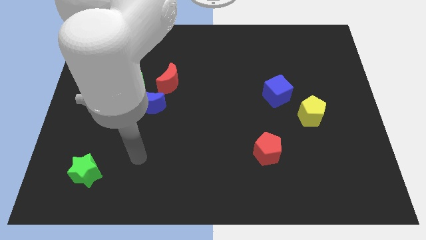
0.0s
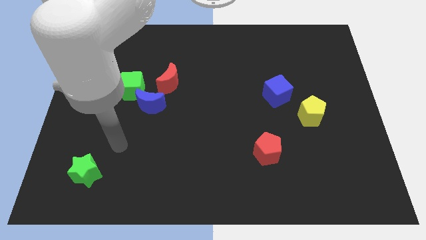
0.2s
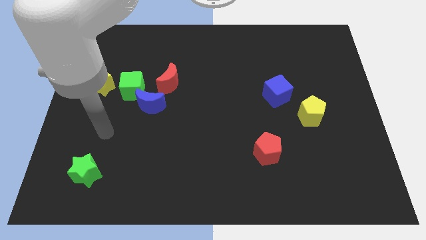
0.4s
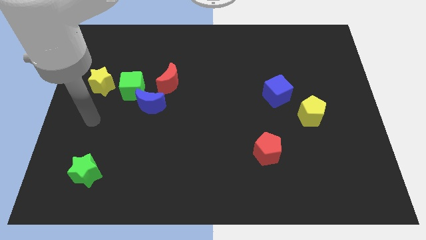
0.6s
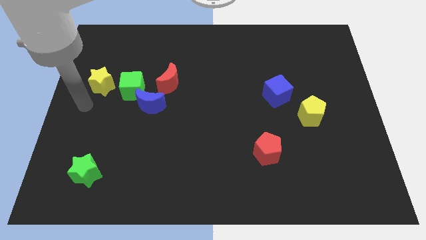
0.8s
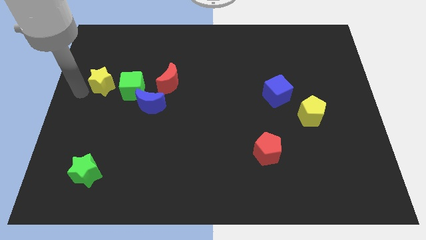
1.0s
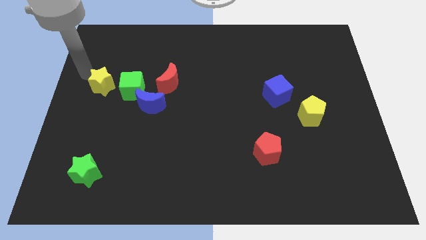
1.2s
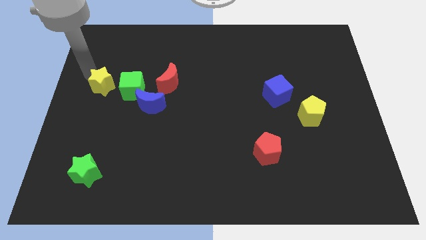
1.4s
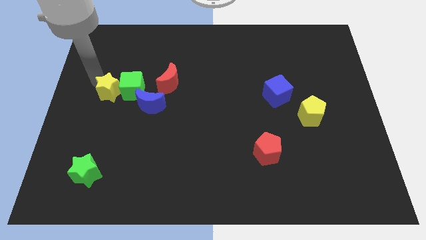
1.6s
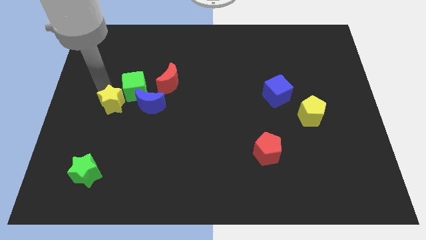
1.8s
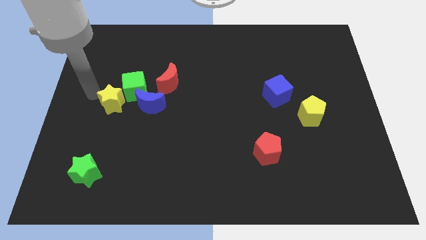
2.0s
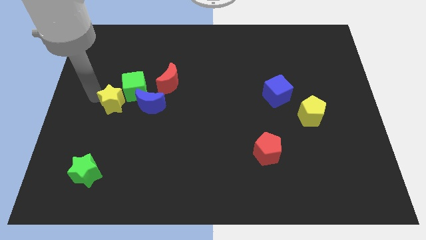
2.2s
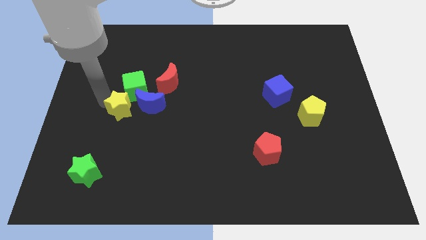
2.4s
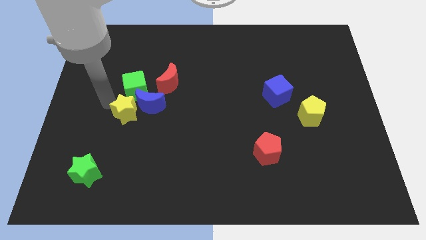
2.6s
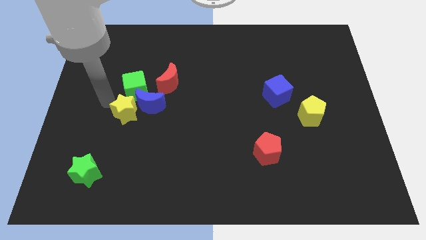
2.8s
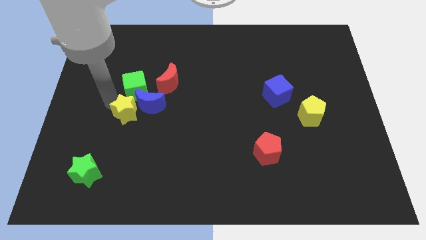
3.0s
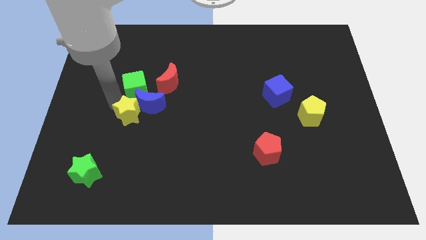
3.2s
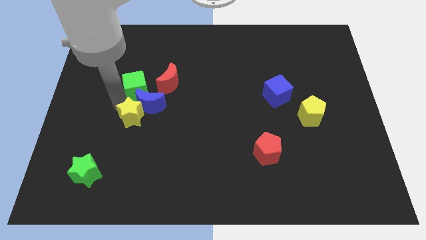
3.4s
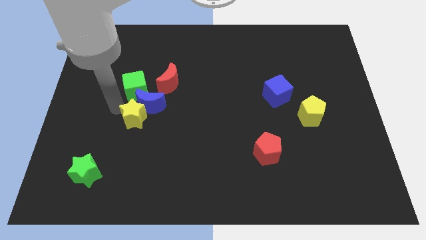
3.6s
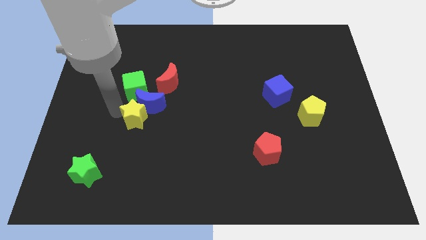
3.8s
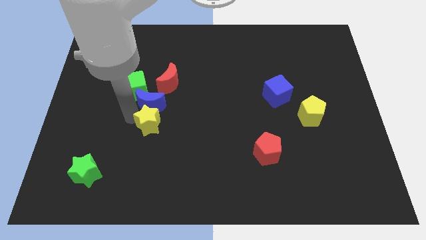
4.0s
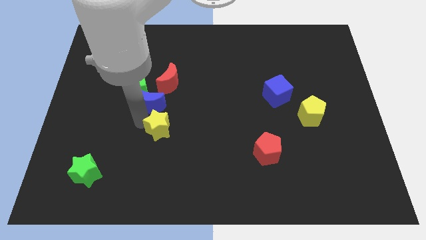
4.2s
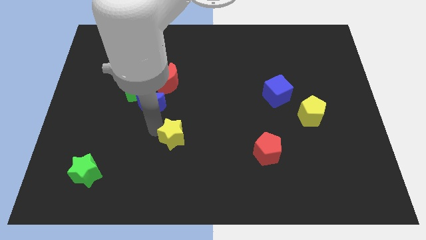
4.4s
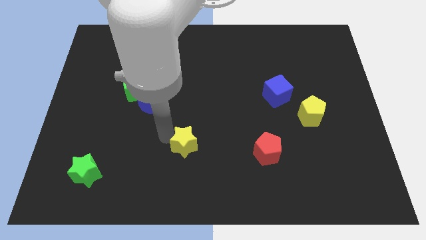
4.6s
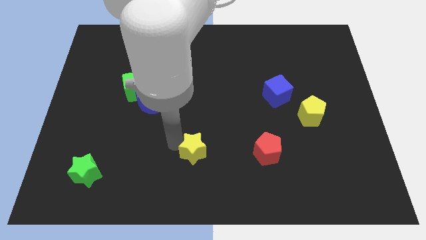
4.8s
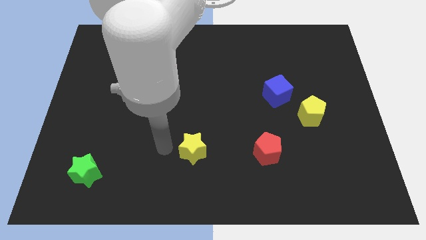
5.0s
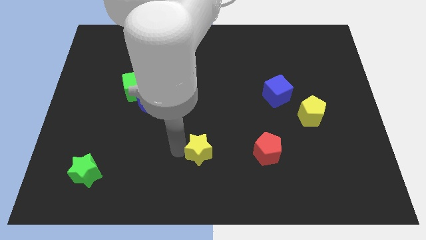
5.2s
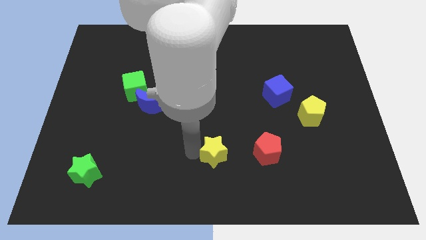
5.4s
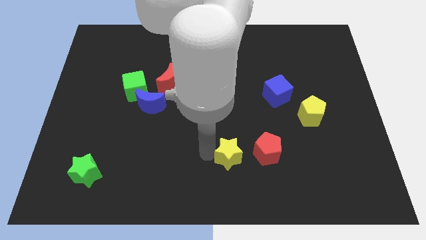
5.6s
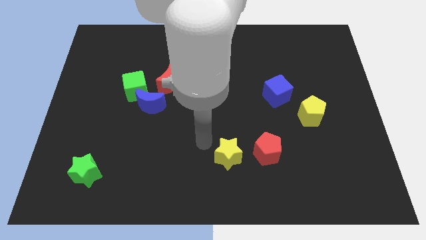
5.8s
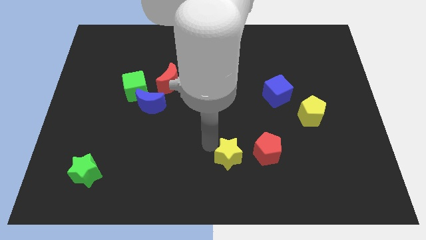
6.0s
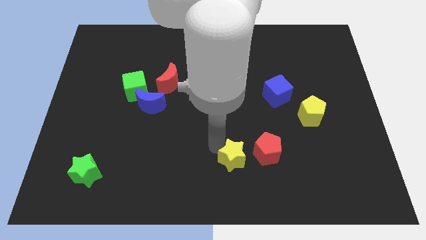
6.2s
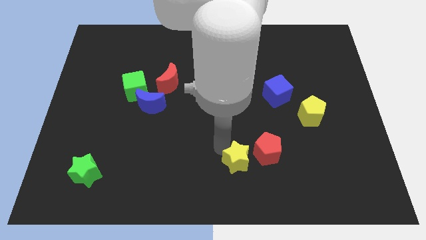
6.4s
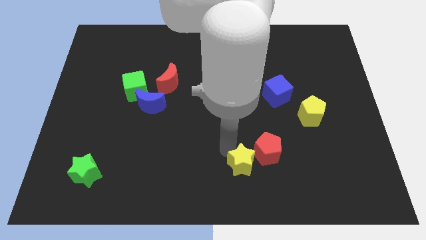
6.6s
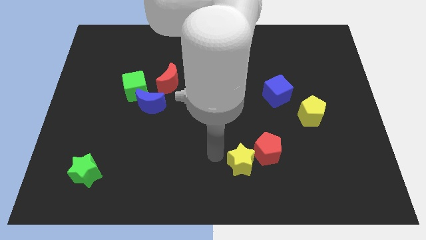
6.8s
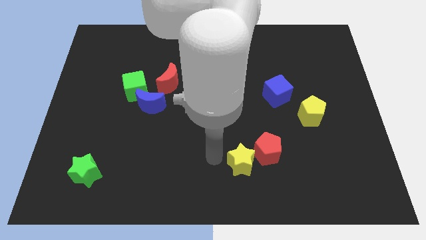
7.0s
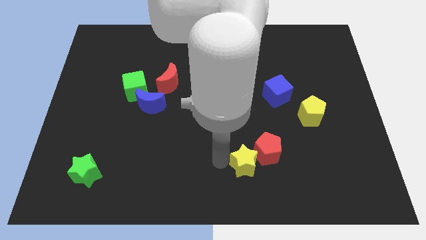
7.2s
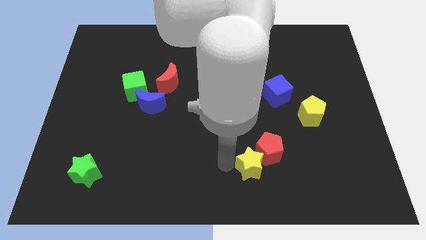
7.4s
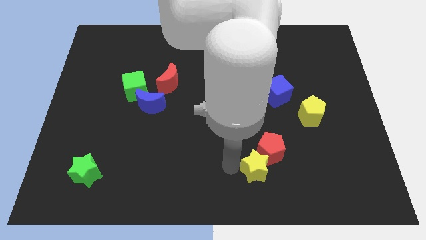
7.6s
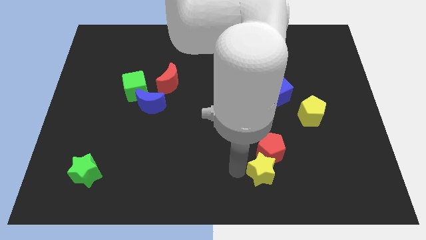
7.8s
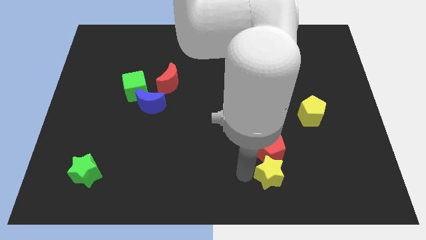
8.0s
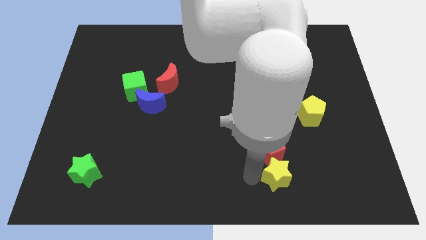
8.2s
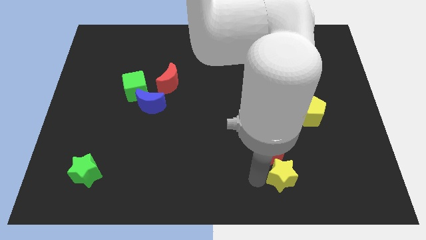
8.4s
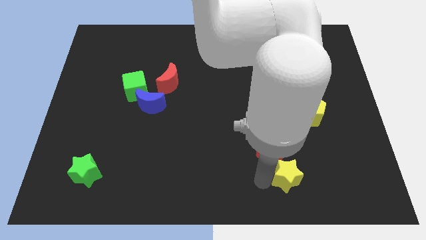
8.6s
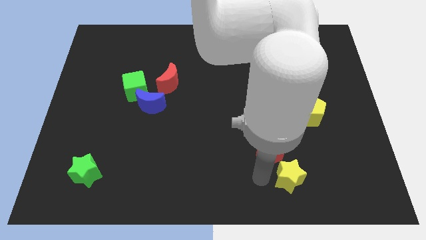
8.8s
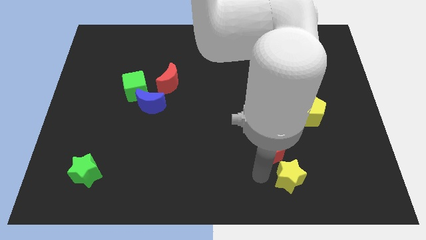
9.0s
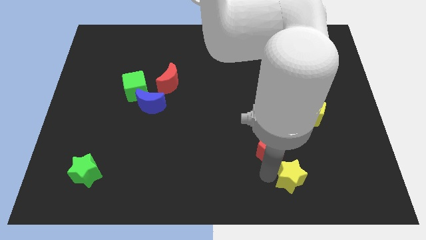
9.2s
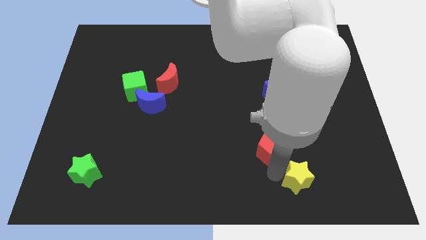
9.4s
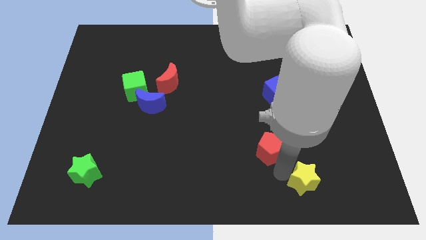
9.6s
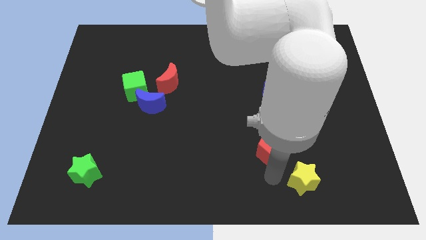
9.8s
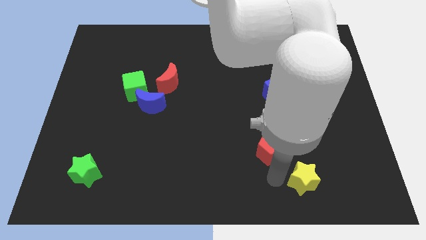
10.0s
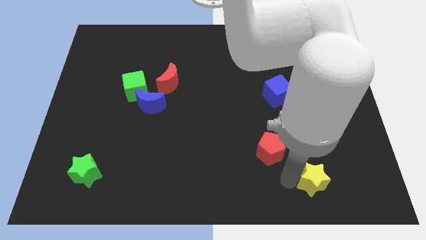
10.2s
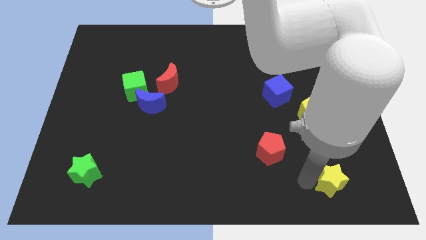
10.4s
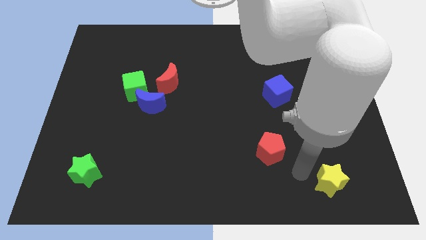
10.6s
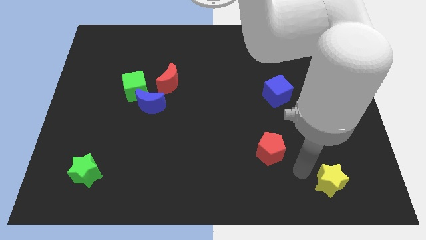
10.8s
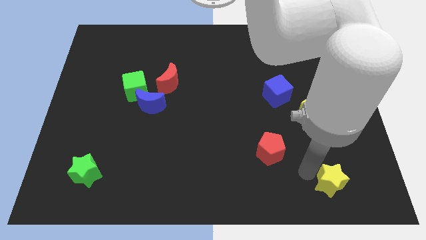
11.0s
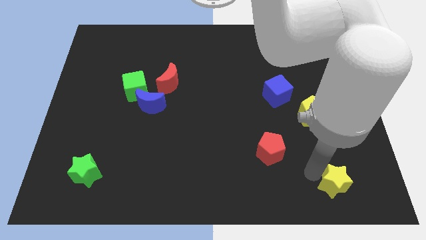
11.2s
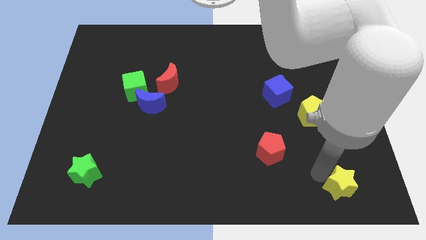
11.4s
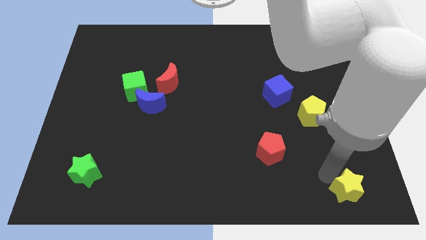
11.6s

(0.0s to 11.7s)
move the yellow star to the lower right corner
